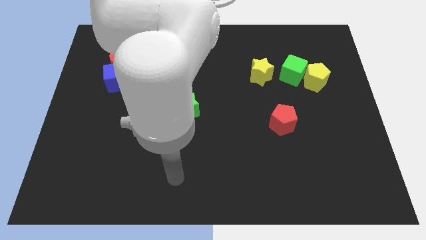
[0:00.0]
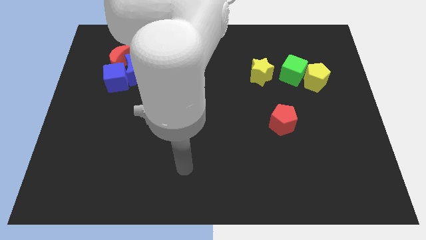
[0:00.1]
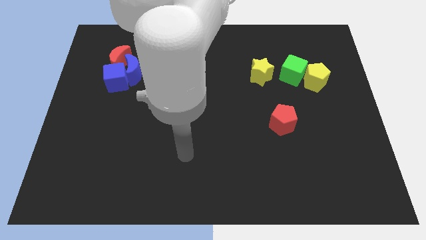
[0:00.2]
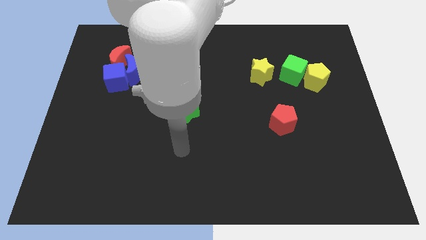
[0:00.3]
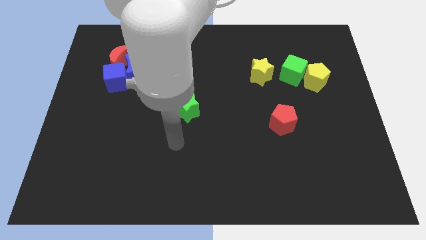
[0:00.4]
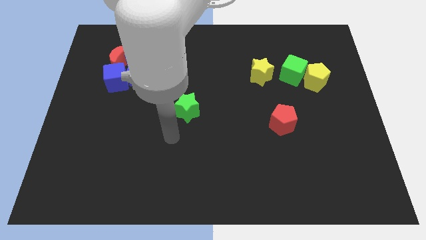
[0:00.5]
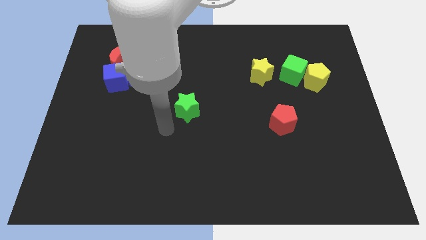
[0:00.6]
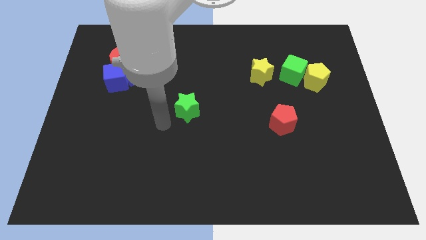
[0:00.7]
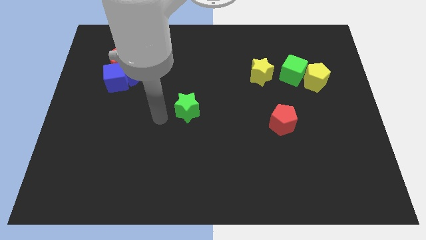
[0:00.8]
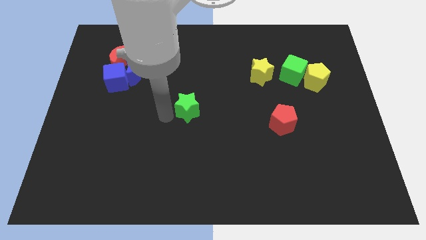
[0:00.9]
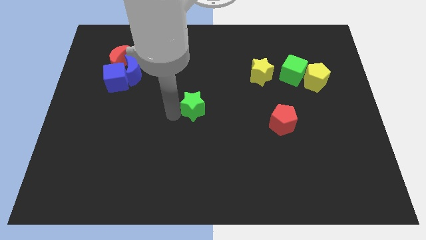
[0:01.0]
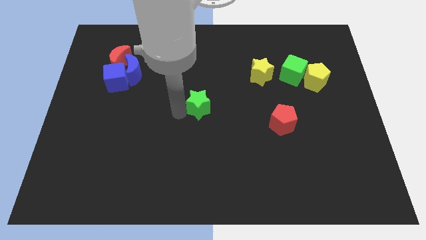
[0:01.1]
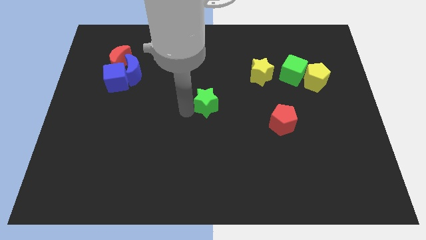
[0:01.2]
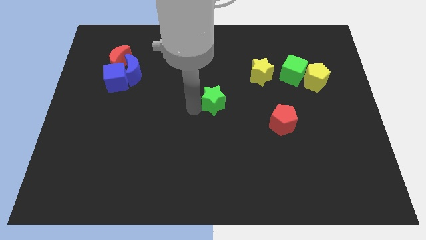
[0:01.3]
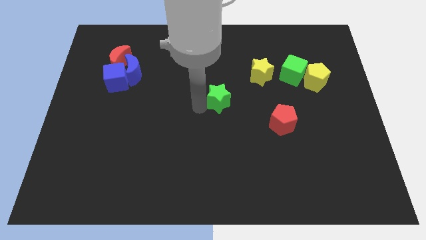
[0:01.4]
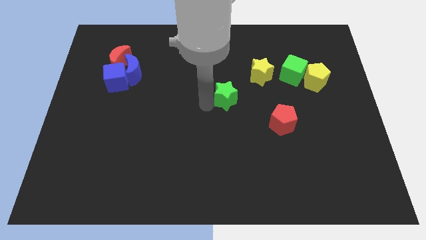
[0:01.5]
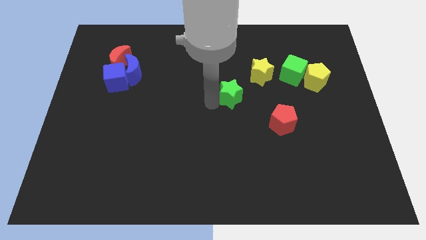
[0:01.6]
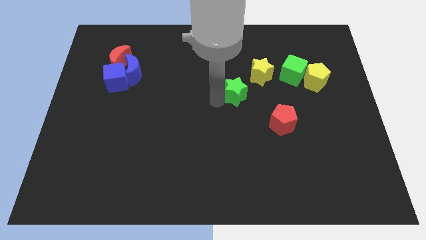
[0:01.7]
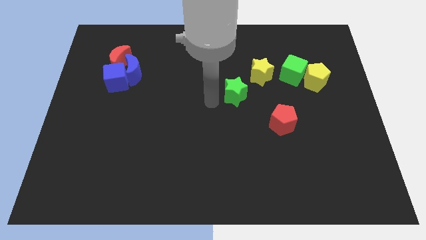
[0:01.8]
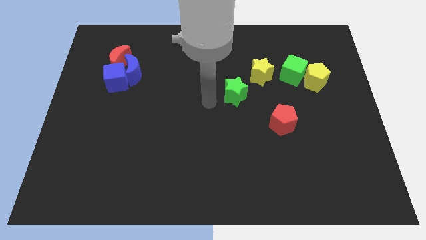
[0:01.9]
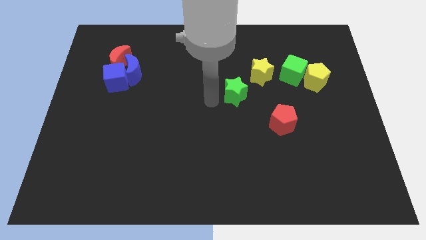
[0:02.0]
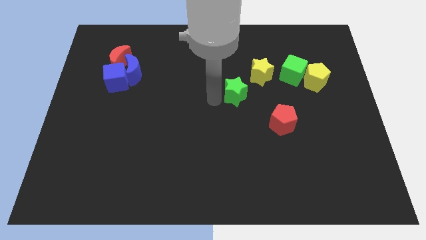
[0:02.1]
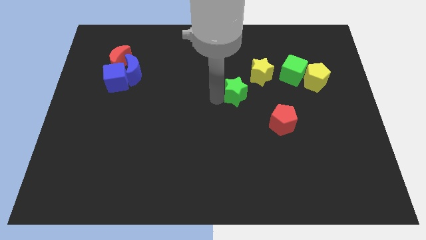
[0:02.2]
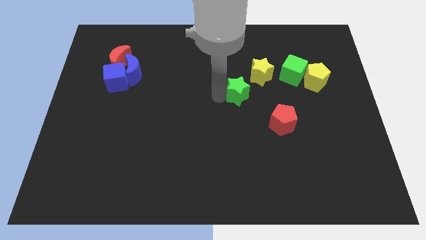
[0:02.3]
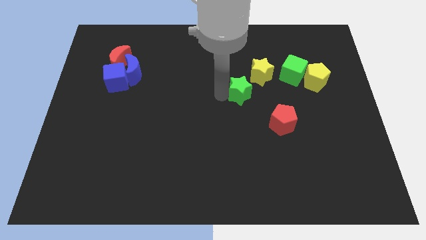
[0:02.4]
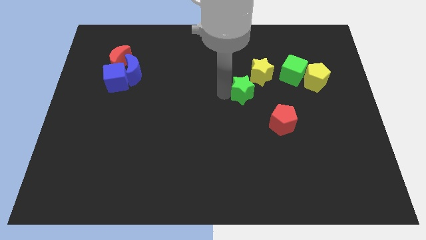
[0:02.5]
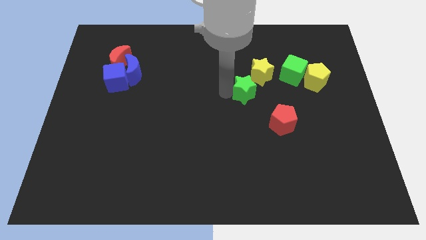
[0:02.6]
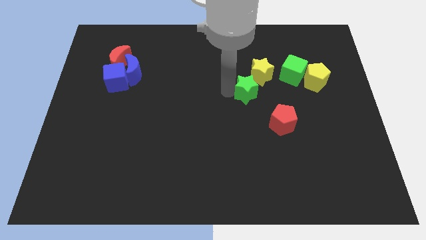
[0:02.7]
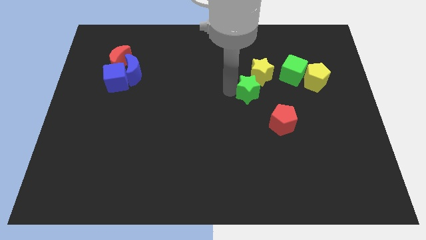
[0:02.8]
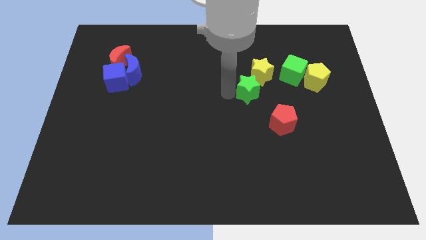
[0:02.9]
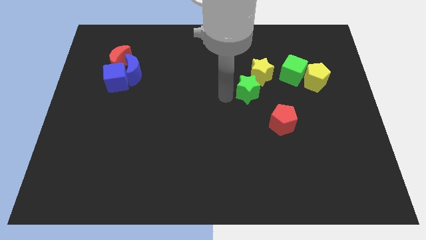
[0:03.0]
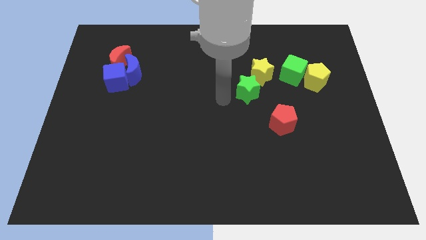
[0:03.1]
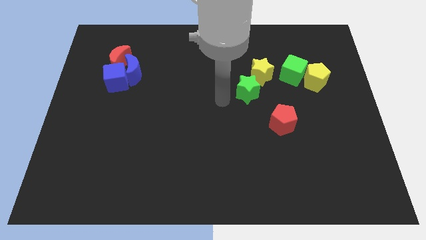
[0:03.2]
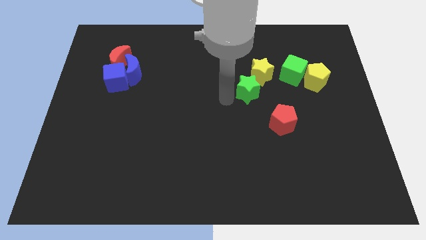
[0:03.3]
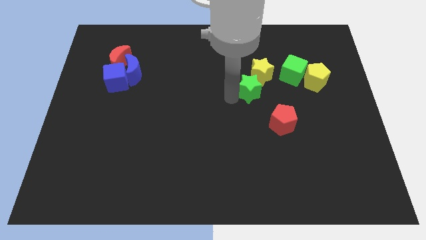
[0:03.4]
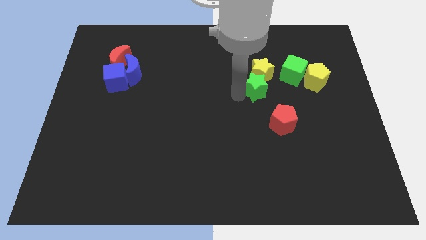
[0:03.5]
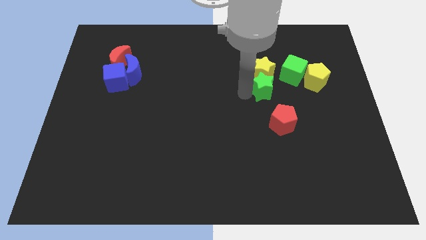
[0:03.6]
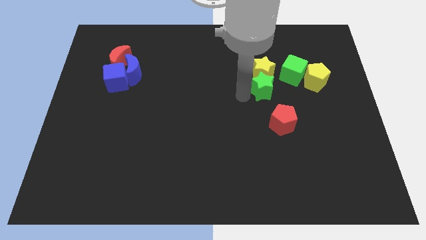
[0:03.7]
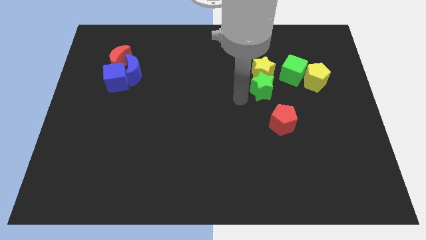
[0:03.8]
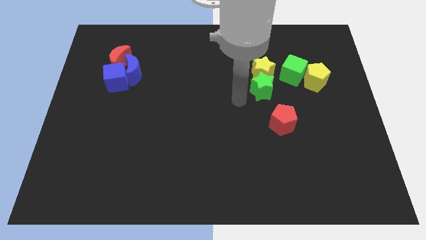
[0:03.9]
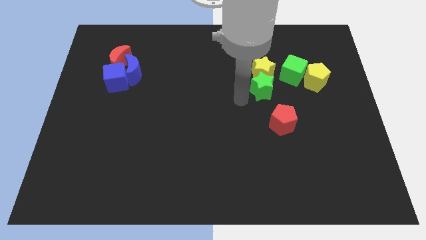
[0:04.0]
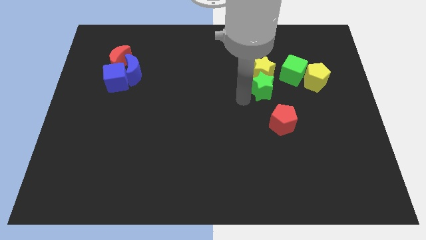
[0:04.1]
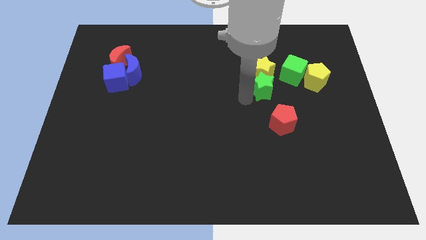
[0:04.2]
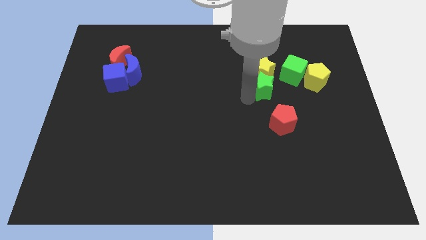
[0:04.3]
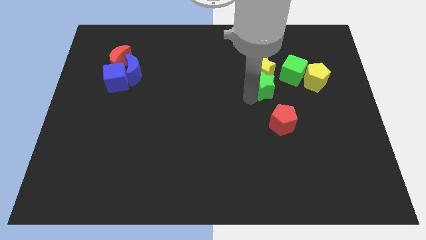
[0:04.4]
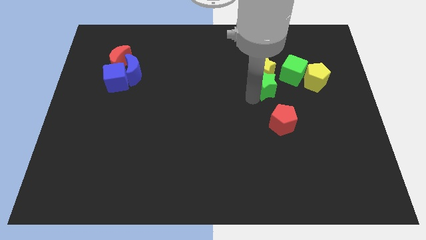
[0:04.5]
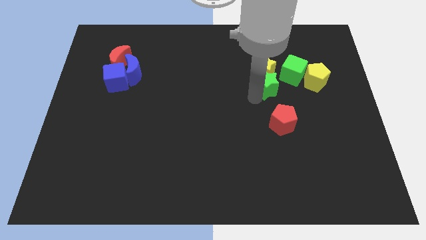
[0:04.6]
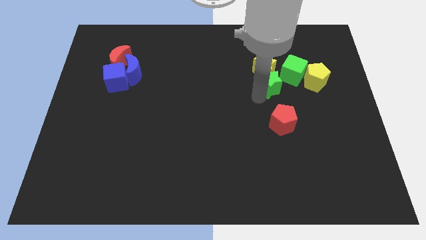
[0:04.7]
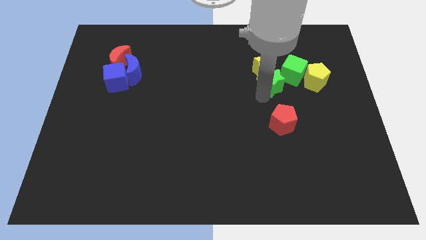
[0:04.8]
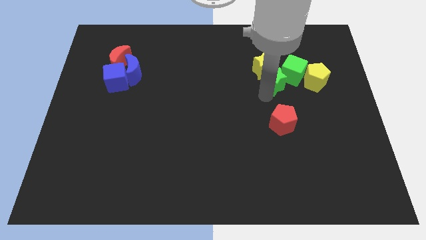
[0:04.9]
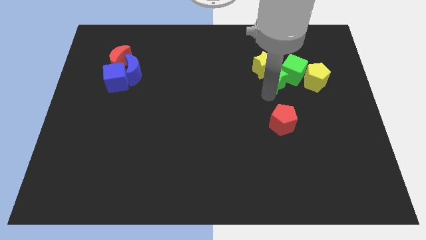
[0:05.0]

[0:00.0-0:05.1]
slide the green star next to the green cube

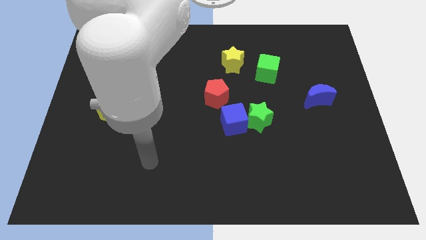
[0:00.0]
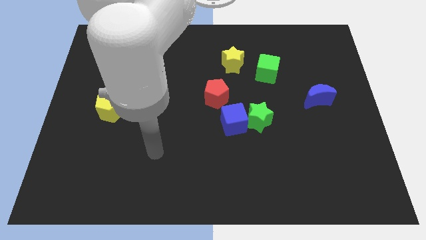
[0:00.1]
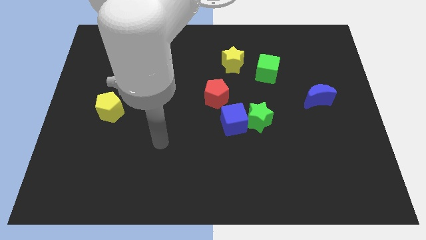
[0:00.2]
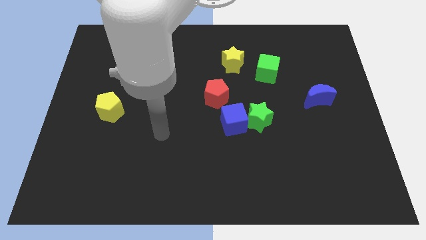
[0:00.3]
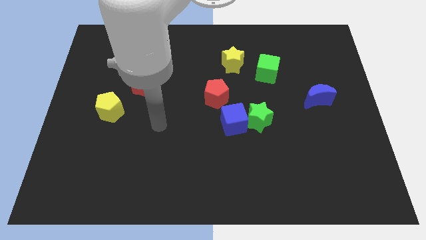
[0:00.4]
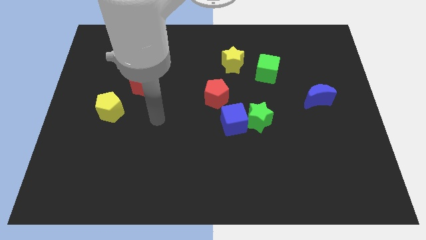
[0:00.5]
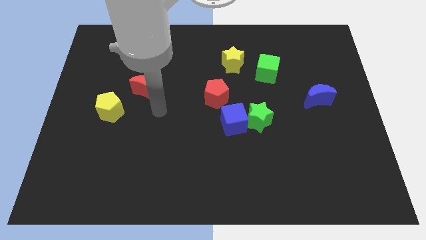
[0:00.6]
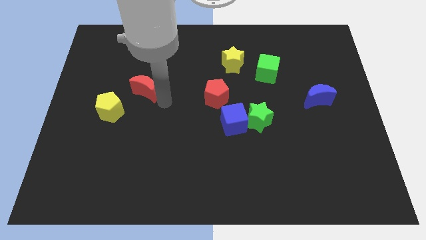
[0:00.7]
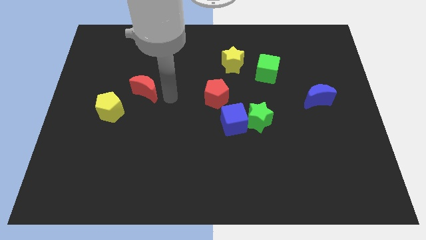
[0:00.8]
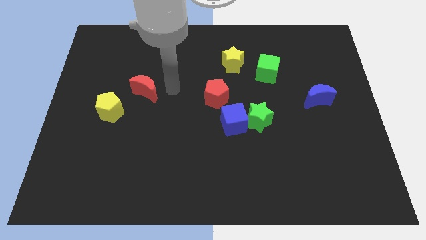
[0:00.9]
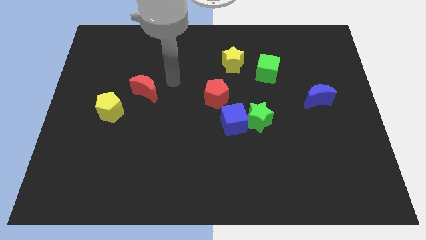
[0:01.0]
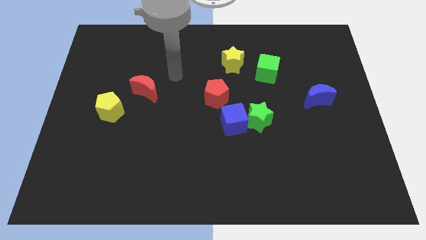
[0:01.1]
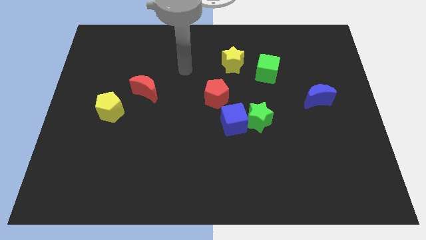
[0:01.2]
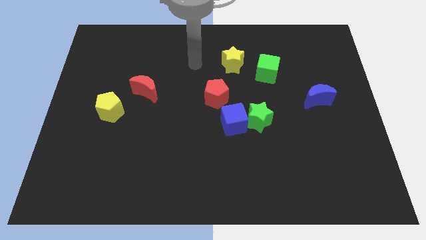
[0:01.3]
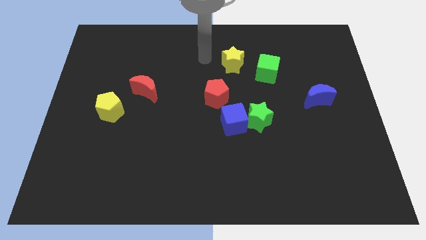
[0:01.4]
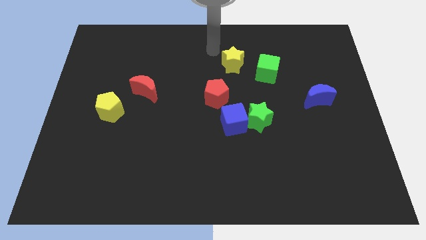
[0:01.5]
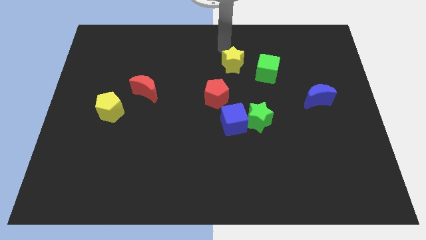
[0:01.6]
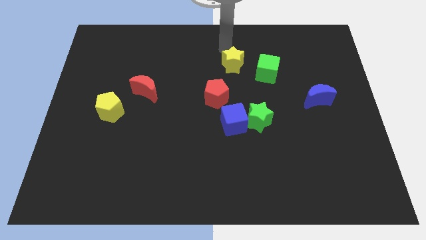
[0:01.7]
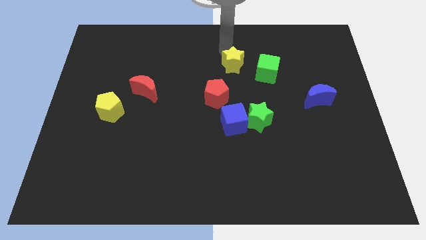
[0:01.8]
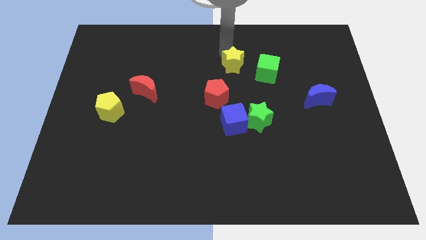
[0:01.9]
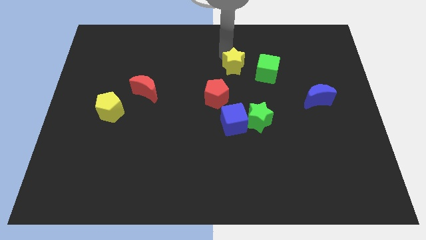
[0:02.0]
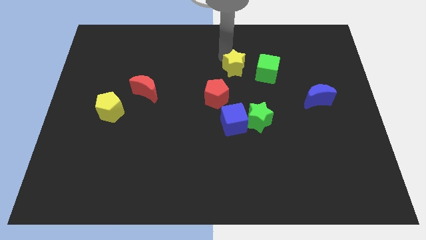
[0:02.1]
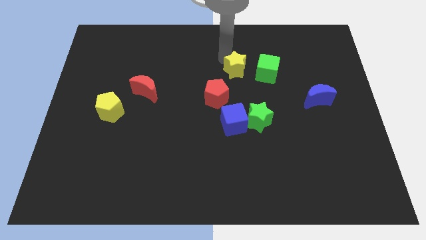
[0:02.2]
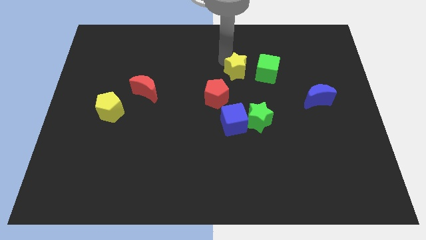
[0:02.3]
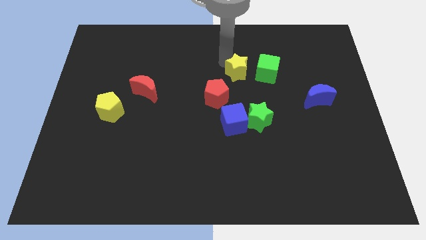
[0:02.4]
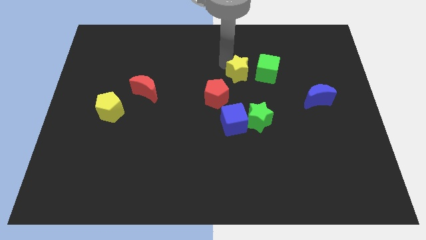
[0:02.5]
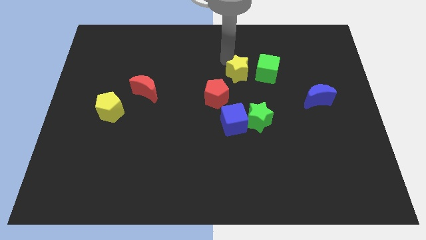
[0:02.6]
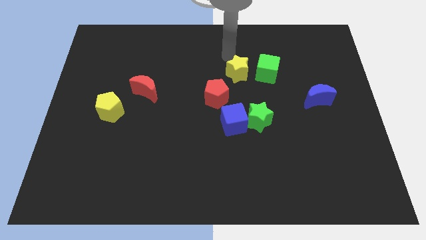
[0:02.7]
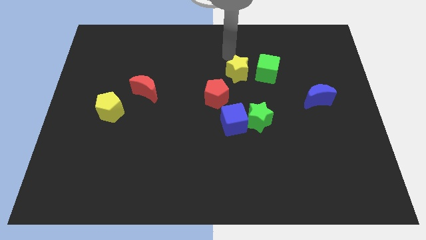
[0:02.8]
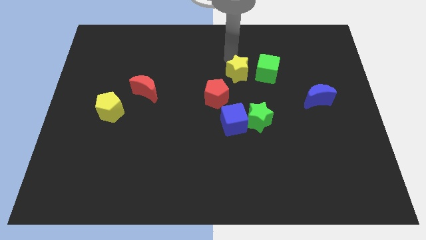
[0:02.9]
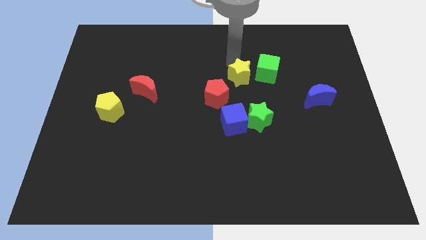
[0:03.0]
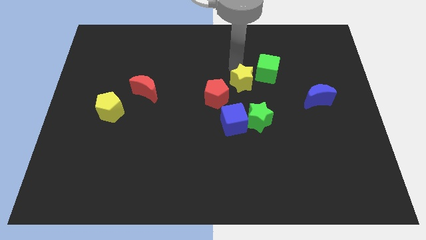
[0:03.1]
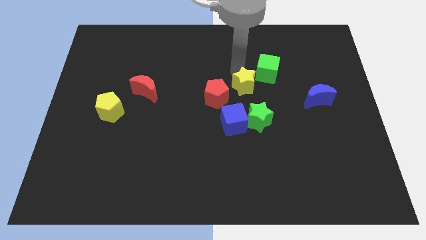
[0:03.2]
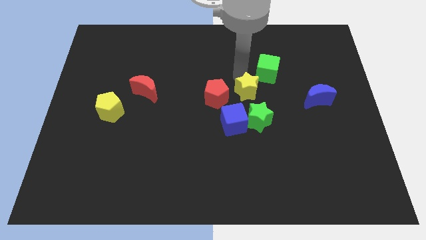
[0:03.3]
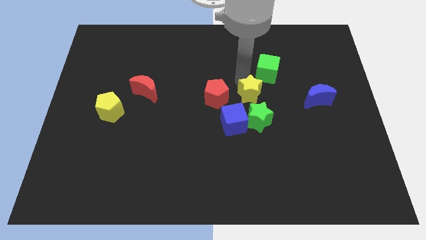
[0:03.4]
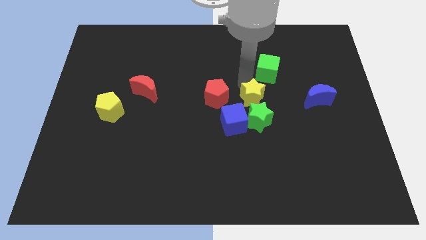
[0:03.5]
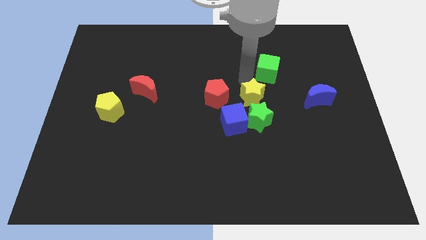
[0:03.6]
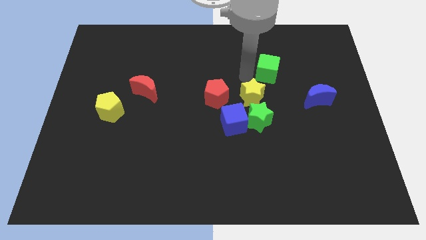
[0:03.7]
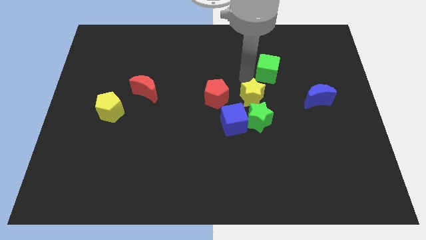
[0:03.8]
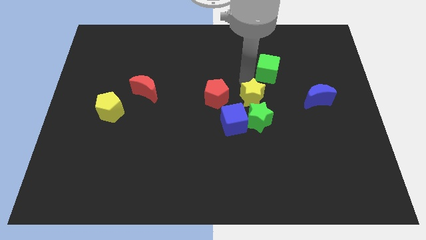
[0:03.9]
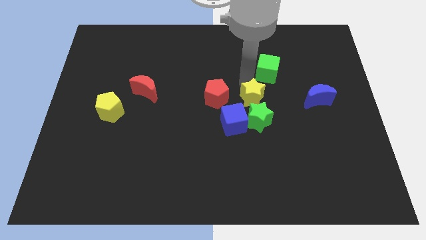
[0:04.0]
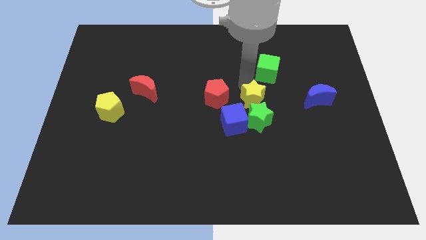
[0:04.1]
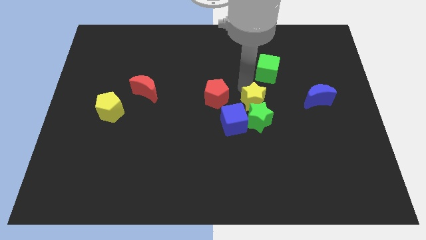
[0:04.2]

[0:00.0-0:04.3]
put the yellow star towards the green star
